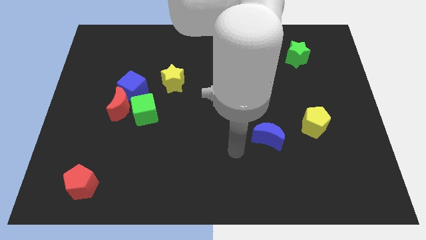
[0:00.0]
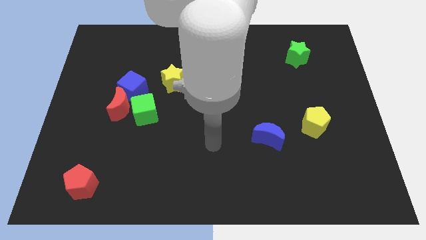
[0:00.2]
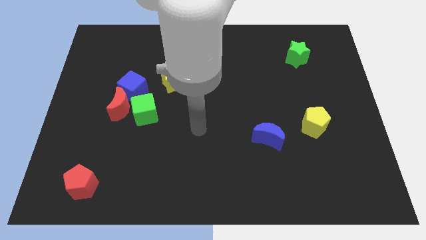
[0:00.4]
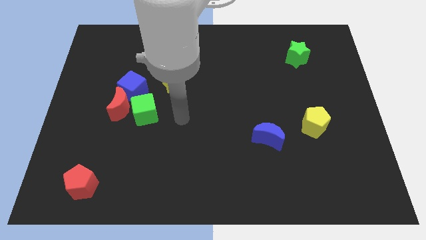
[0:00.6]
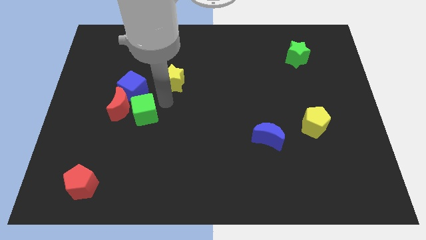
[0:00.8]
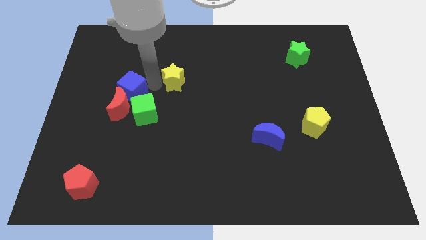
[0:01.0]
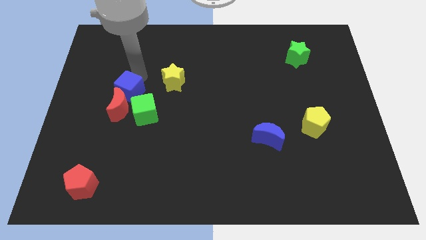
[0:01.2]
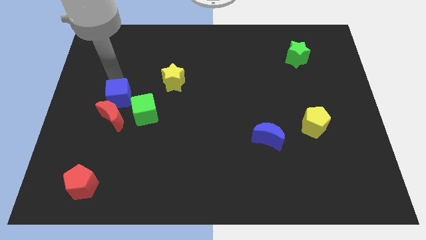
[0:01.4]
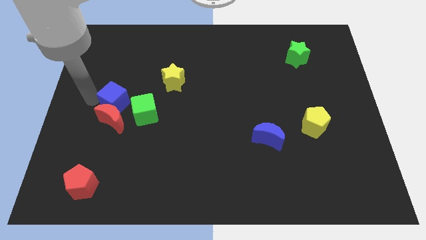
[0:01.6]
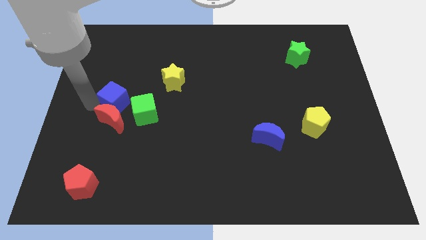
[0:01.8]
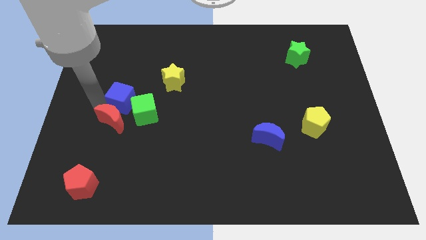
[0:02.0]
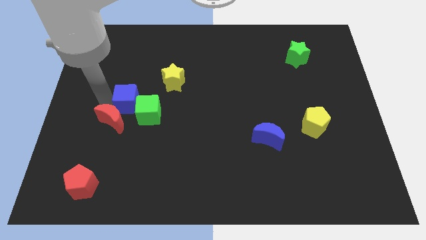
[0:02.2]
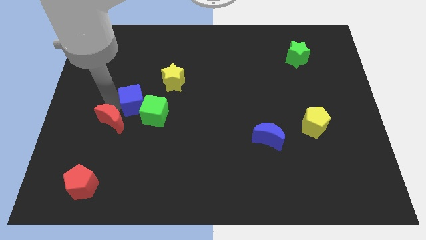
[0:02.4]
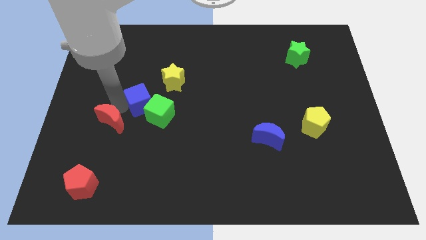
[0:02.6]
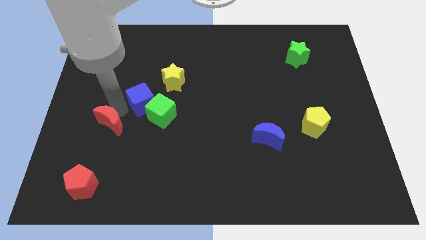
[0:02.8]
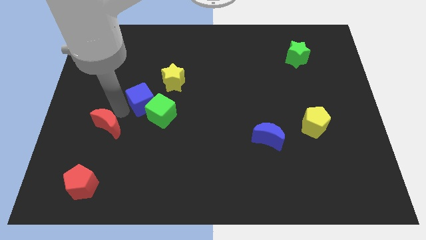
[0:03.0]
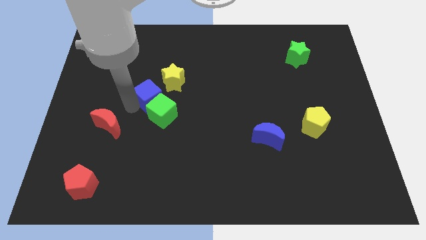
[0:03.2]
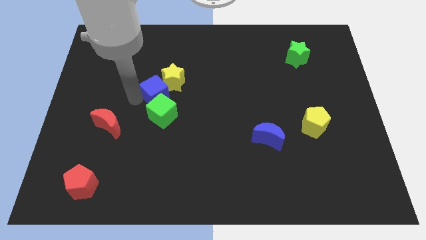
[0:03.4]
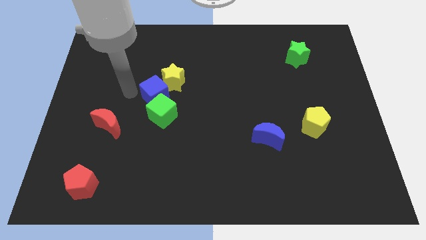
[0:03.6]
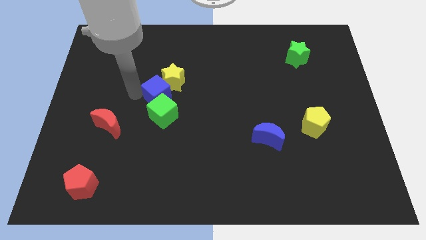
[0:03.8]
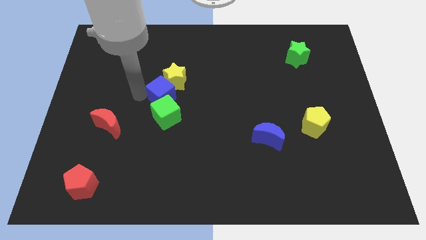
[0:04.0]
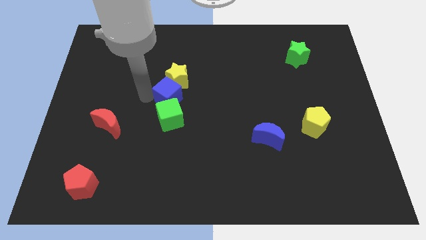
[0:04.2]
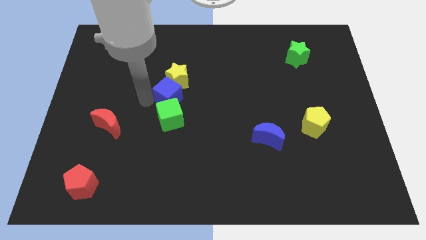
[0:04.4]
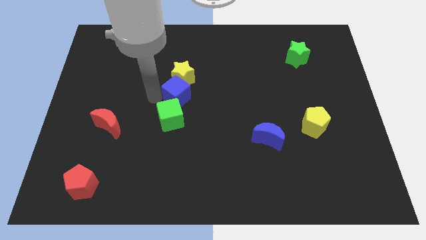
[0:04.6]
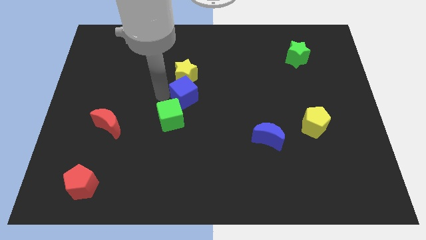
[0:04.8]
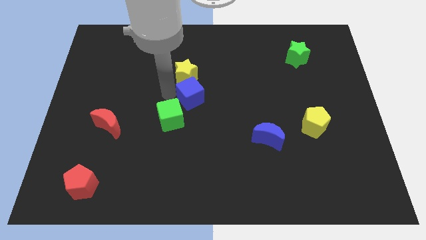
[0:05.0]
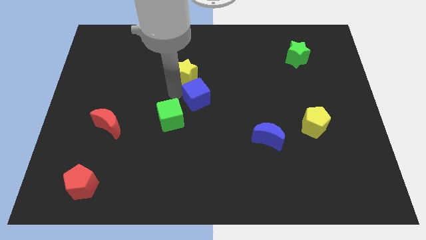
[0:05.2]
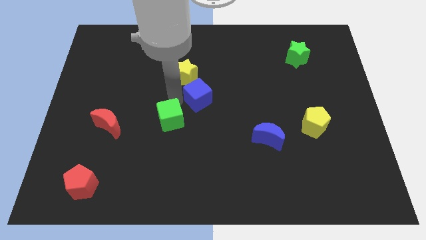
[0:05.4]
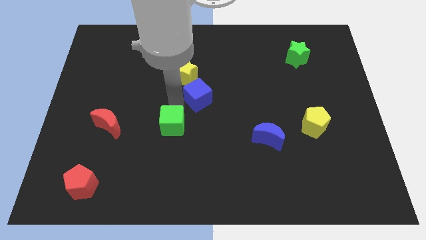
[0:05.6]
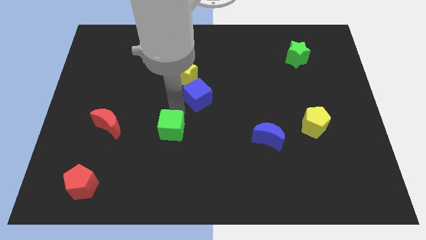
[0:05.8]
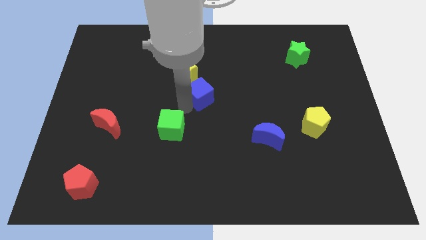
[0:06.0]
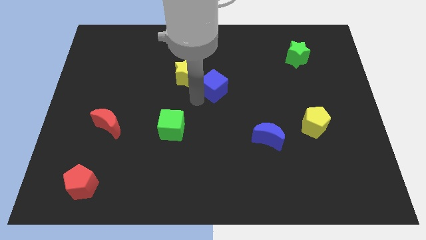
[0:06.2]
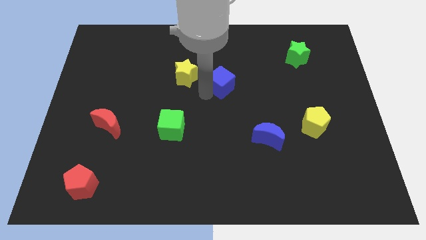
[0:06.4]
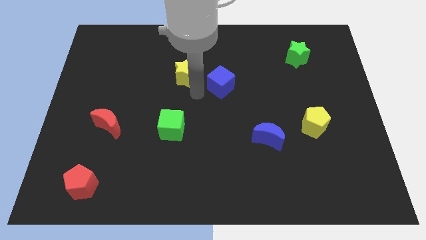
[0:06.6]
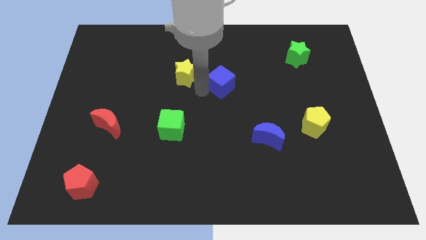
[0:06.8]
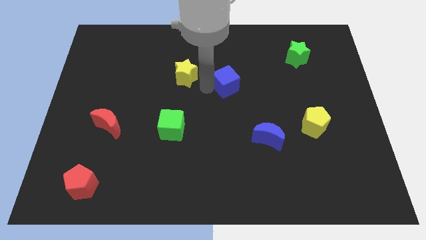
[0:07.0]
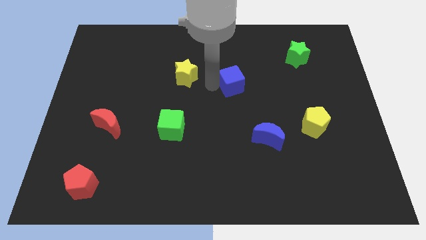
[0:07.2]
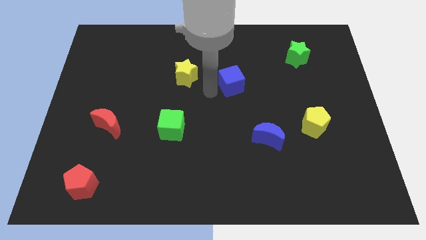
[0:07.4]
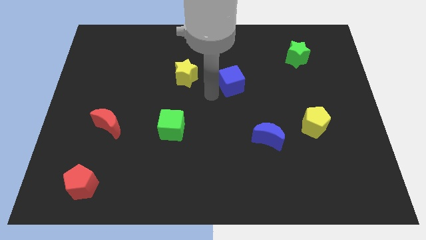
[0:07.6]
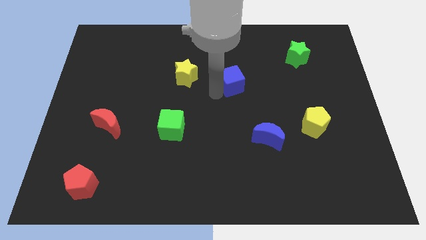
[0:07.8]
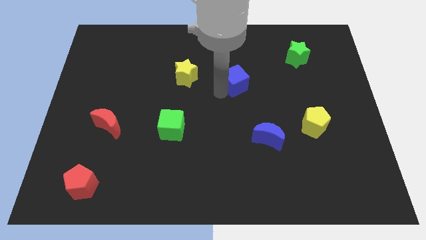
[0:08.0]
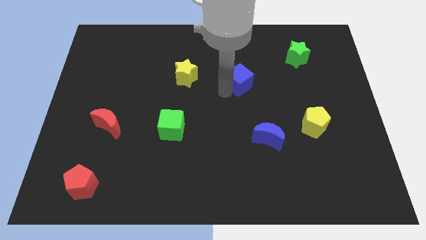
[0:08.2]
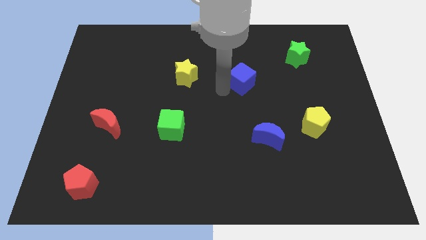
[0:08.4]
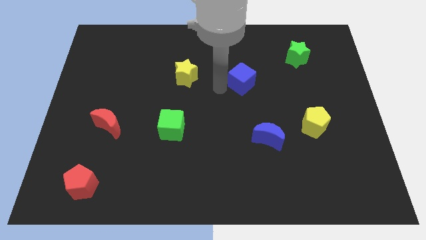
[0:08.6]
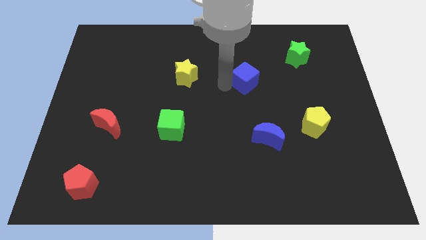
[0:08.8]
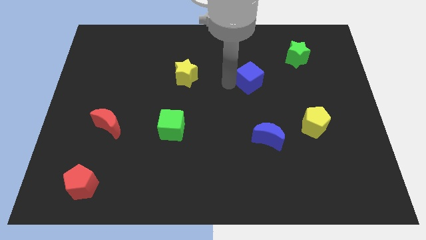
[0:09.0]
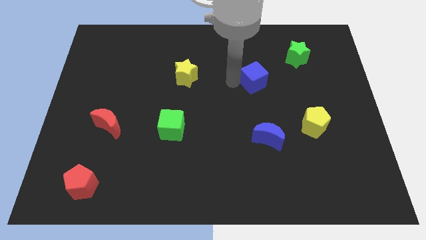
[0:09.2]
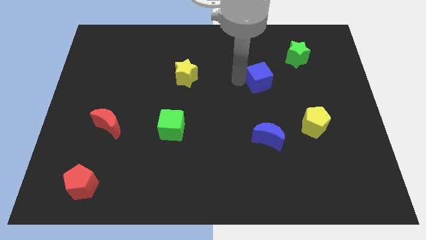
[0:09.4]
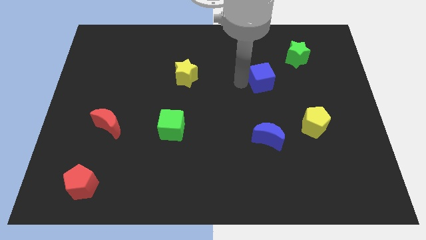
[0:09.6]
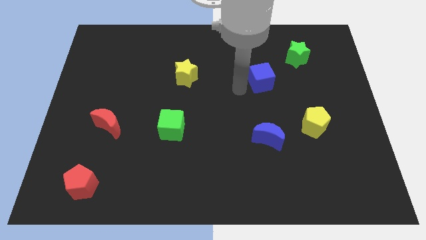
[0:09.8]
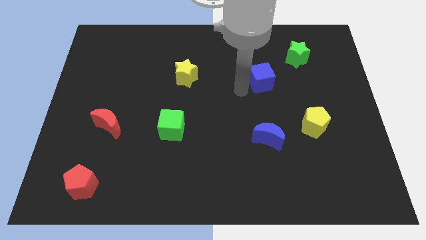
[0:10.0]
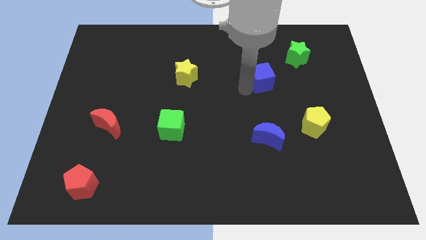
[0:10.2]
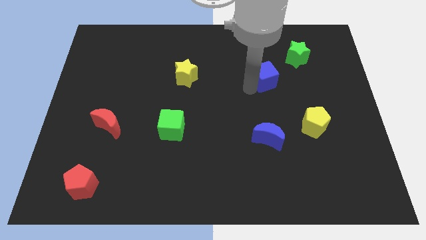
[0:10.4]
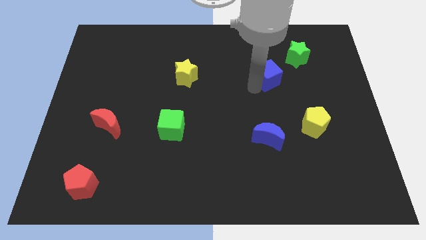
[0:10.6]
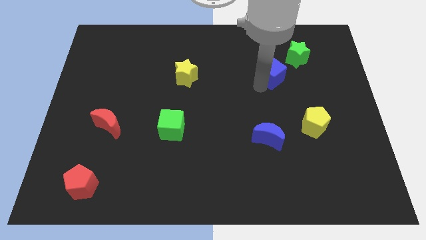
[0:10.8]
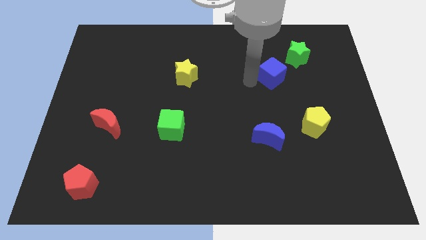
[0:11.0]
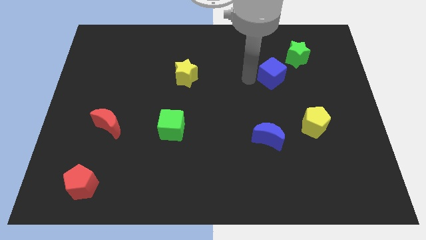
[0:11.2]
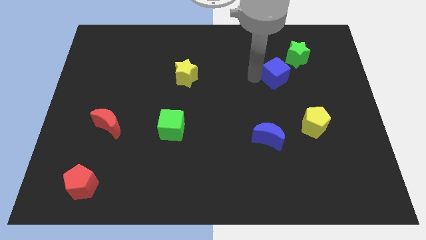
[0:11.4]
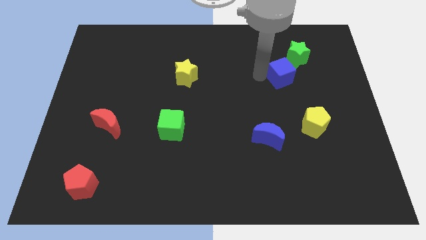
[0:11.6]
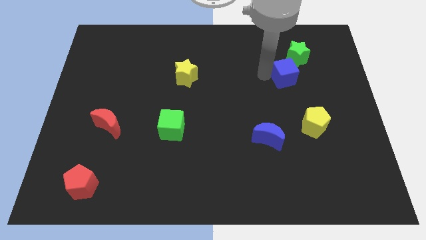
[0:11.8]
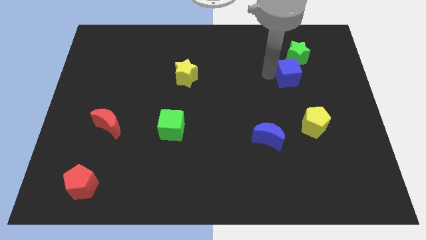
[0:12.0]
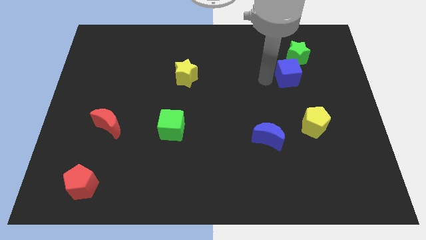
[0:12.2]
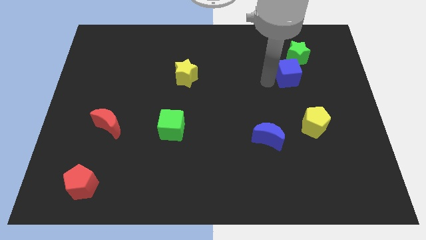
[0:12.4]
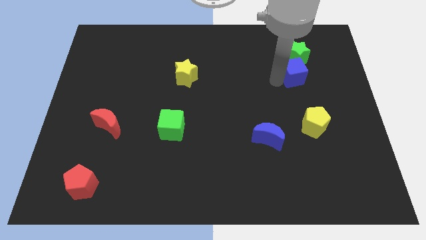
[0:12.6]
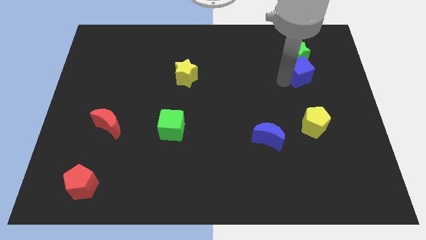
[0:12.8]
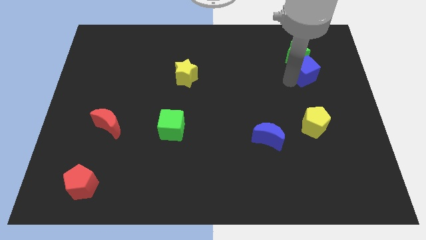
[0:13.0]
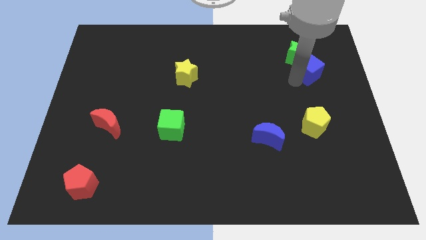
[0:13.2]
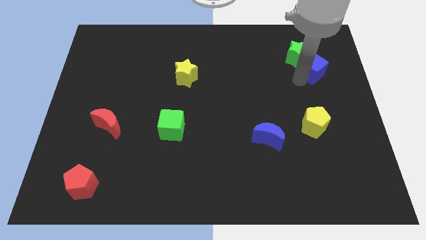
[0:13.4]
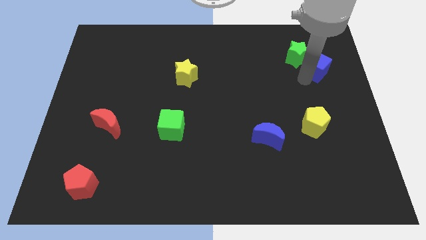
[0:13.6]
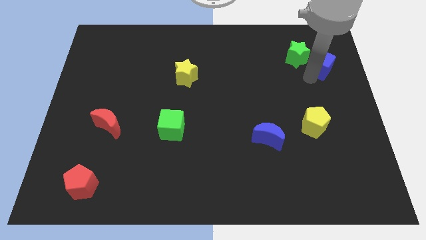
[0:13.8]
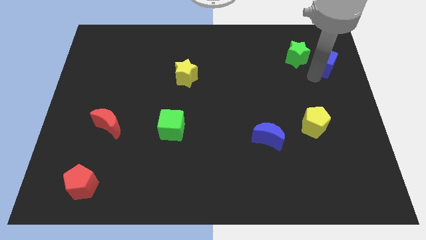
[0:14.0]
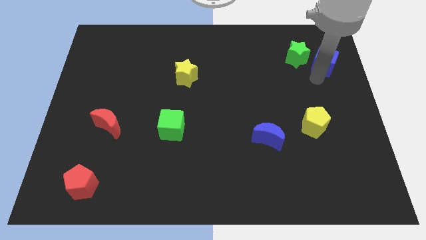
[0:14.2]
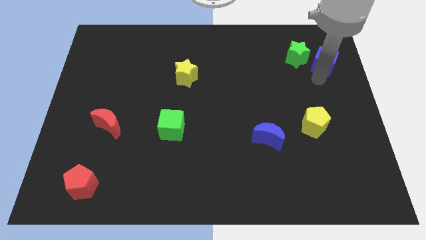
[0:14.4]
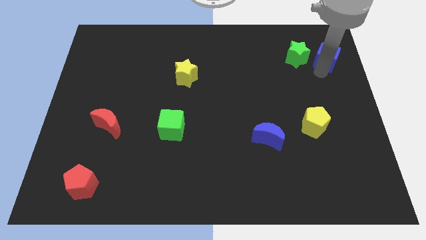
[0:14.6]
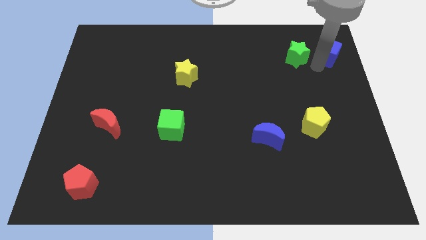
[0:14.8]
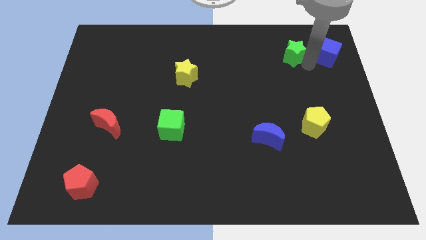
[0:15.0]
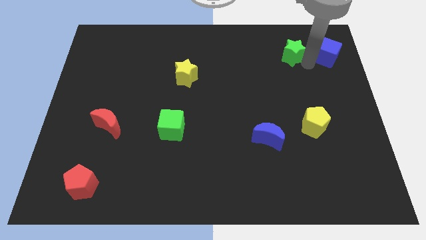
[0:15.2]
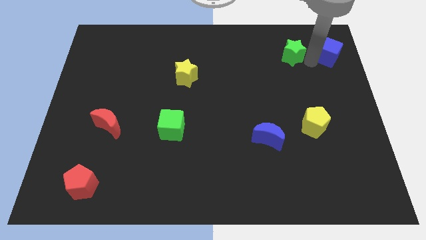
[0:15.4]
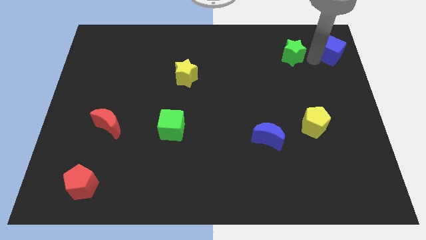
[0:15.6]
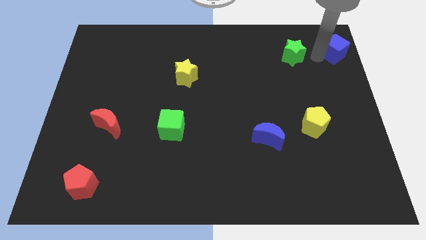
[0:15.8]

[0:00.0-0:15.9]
move the blue cube to the top right of the board
